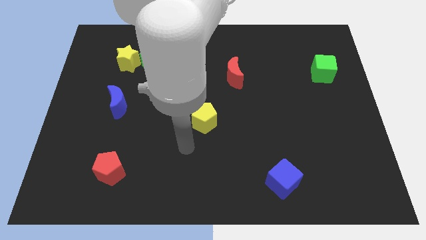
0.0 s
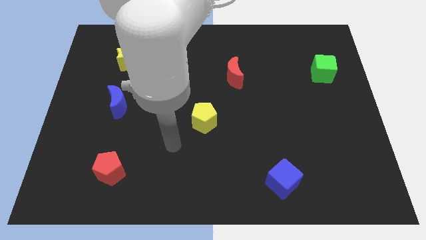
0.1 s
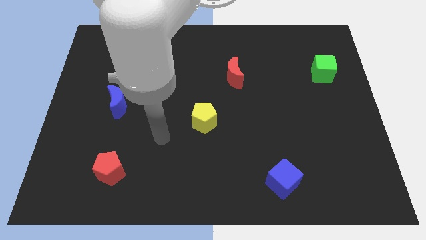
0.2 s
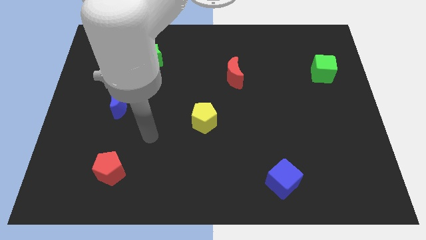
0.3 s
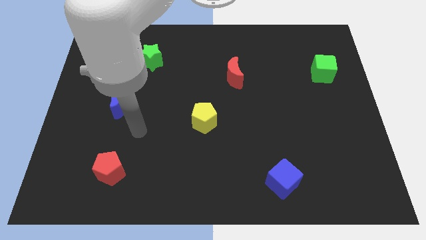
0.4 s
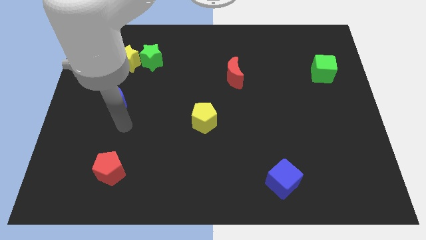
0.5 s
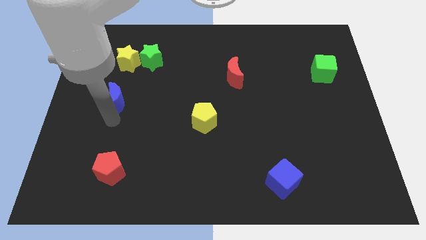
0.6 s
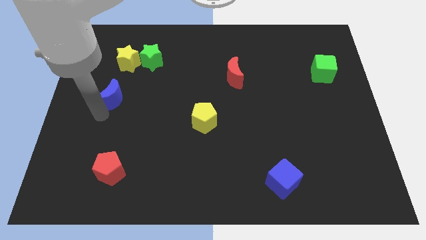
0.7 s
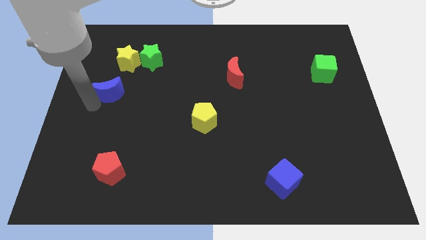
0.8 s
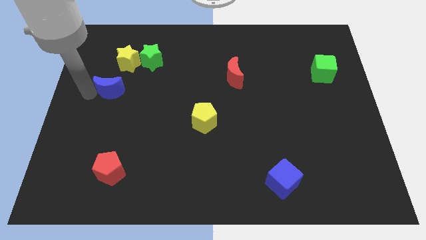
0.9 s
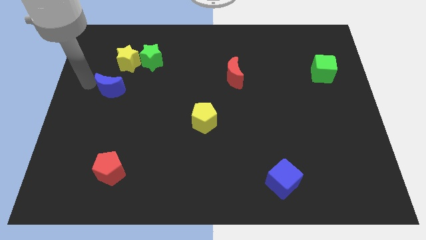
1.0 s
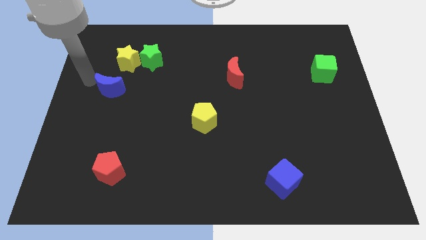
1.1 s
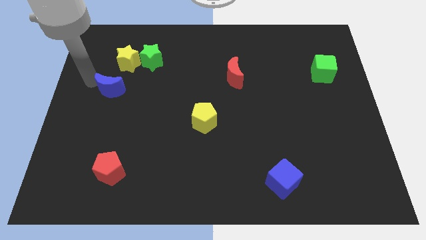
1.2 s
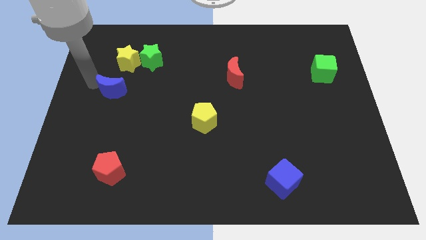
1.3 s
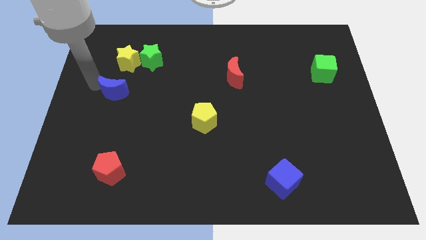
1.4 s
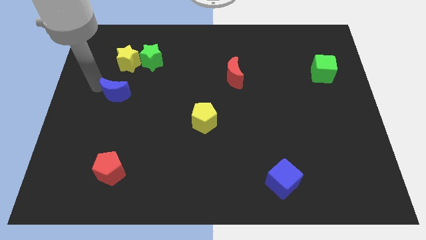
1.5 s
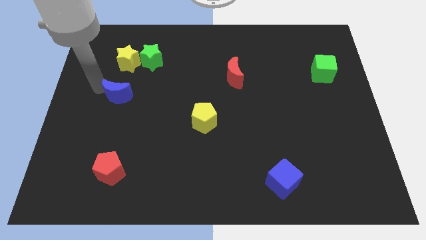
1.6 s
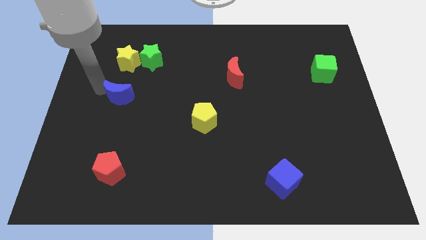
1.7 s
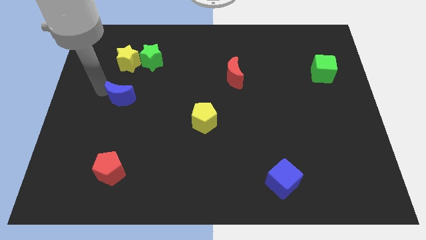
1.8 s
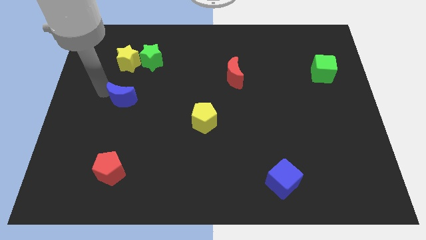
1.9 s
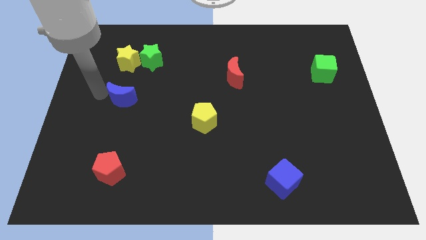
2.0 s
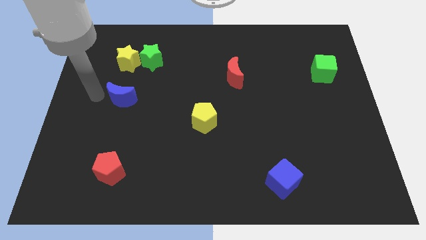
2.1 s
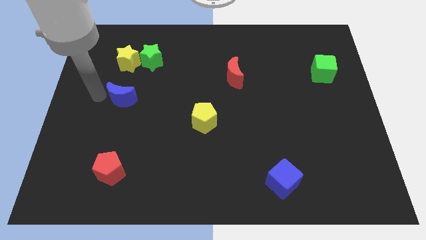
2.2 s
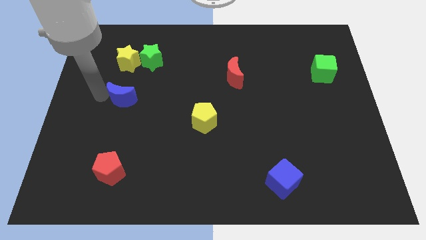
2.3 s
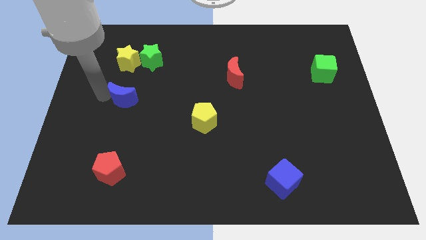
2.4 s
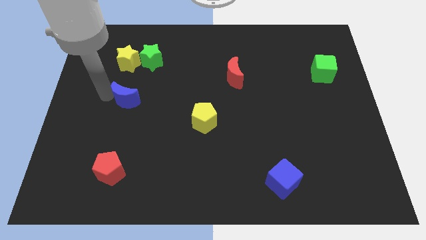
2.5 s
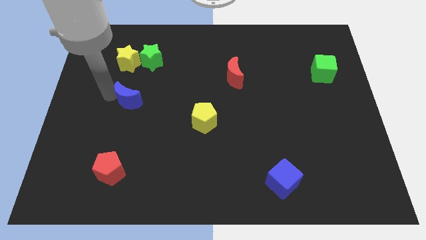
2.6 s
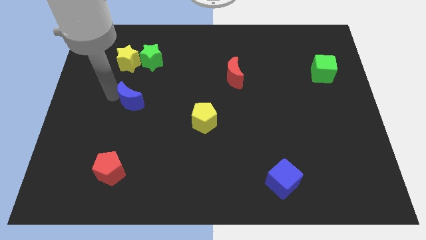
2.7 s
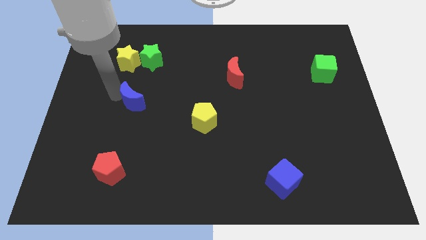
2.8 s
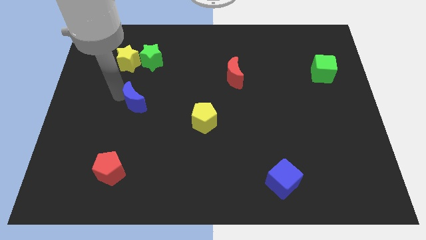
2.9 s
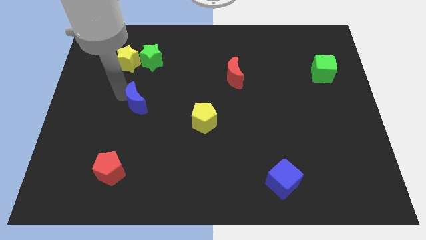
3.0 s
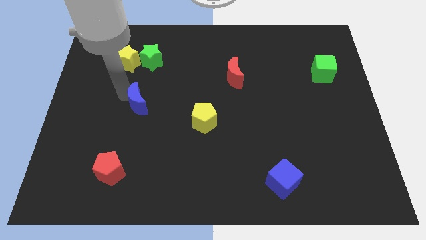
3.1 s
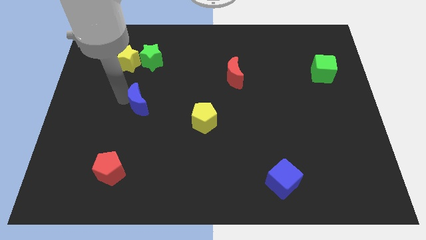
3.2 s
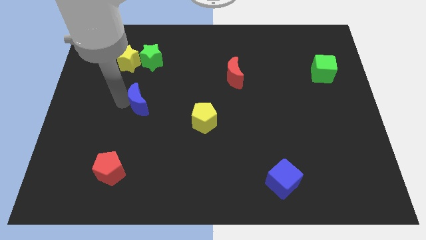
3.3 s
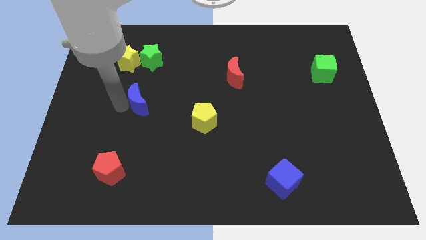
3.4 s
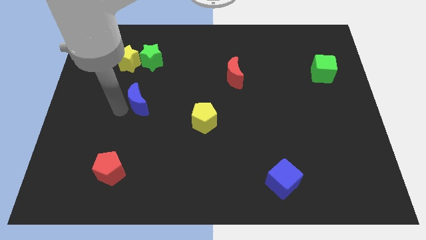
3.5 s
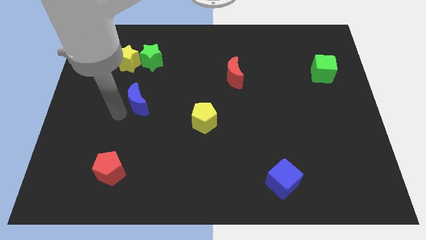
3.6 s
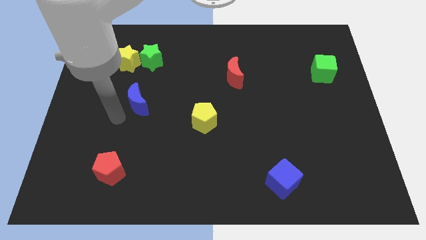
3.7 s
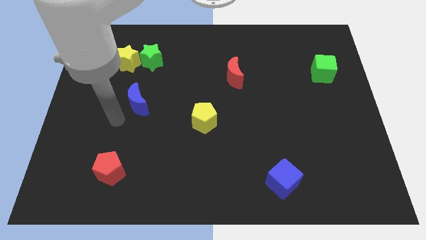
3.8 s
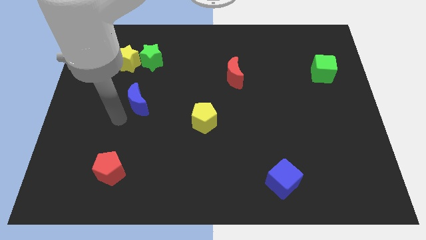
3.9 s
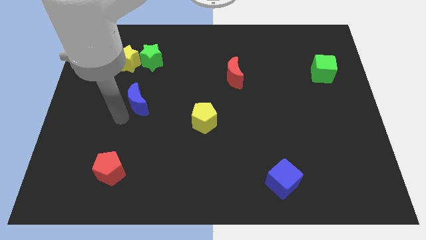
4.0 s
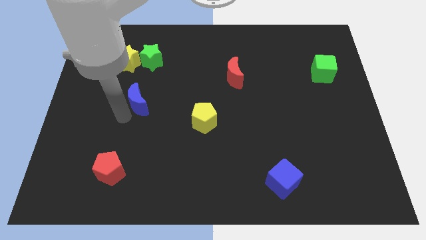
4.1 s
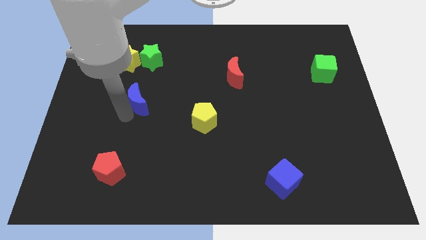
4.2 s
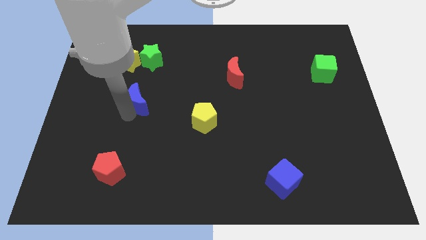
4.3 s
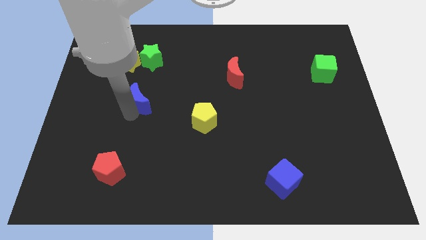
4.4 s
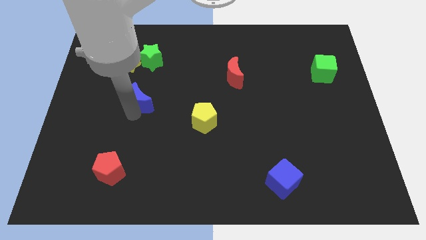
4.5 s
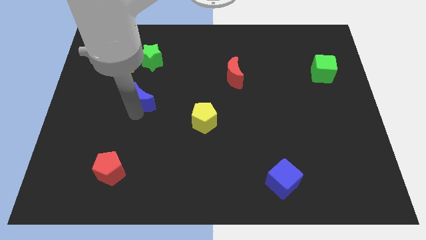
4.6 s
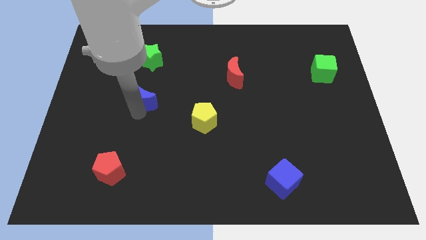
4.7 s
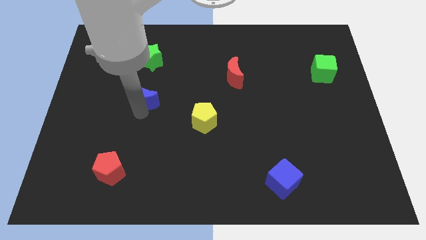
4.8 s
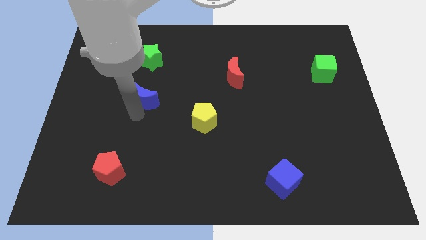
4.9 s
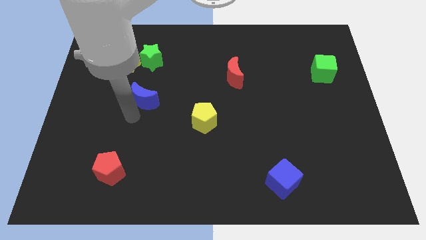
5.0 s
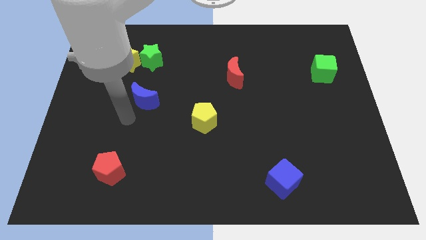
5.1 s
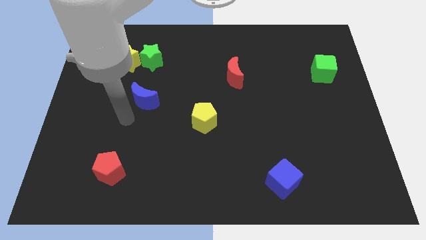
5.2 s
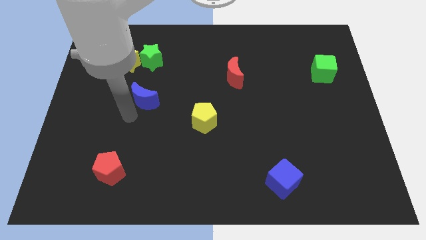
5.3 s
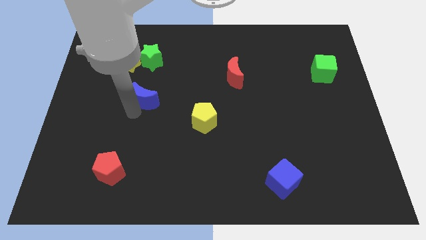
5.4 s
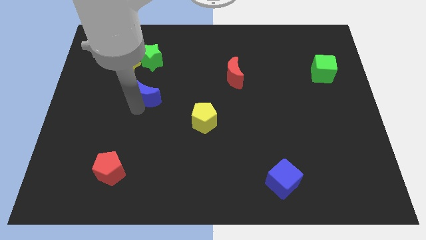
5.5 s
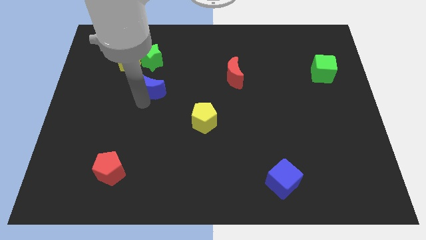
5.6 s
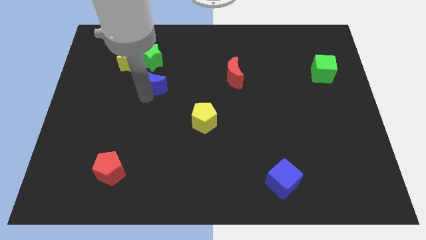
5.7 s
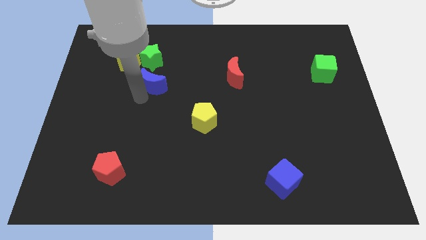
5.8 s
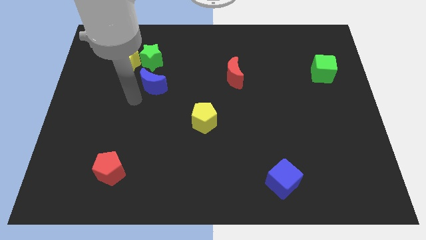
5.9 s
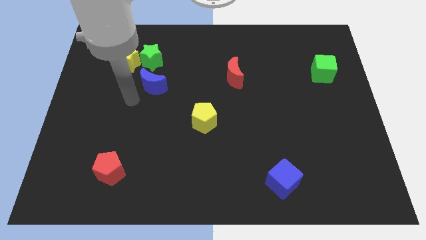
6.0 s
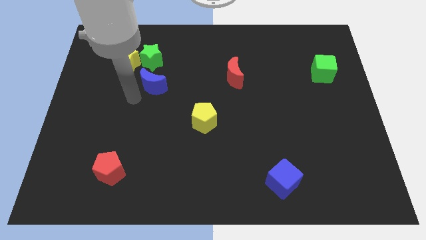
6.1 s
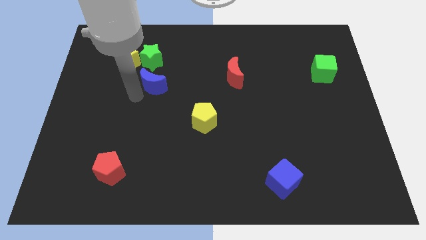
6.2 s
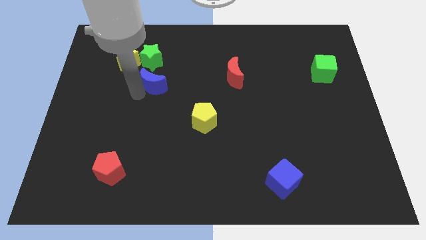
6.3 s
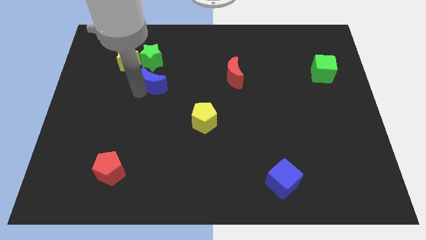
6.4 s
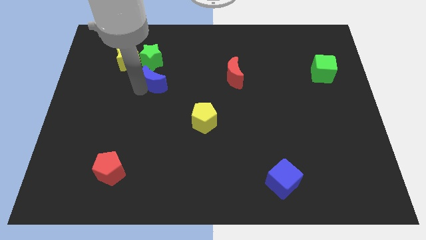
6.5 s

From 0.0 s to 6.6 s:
slide the blue moon to the bottom right side of the green star

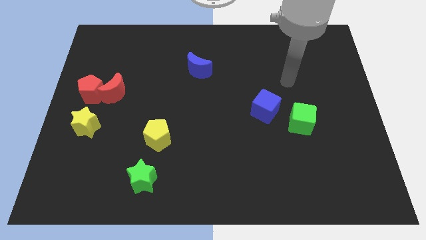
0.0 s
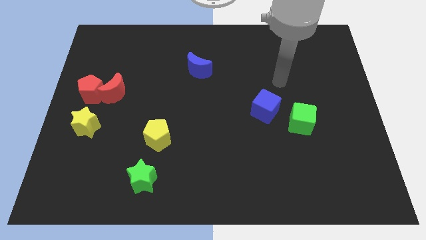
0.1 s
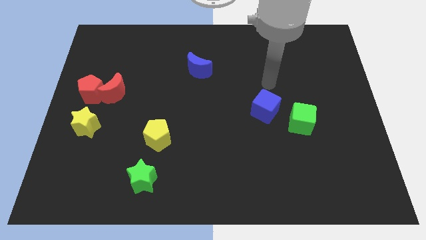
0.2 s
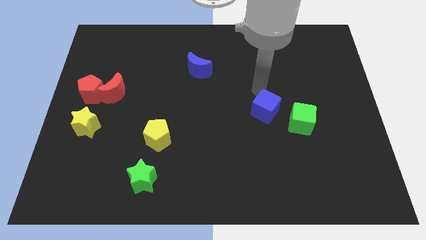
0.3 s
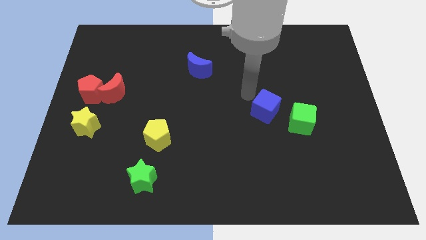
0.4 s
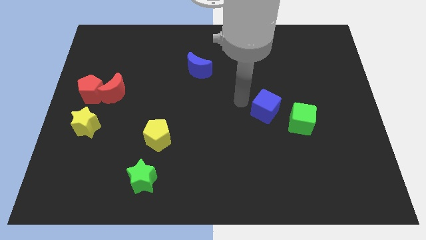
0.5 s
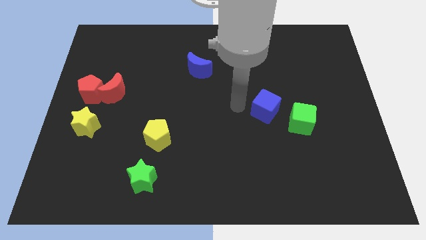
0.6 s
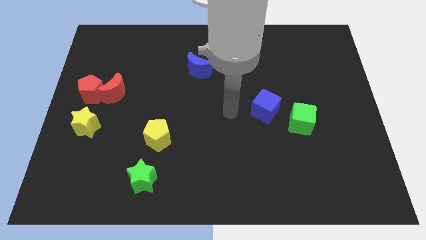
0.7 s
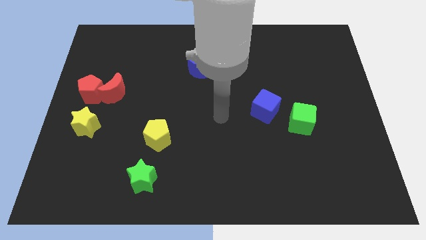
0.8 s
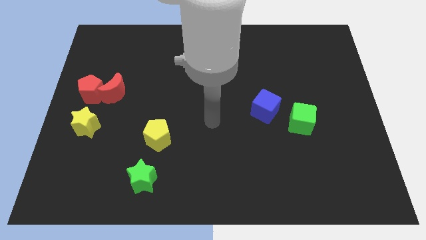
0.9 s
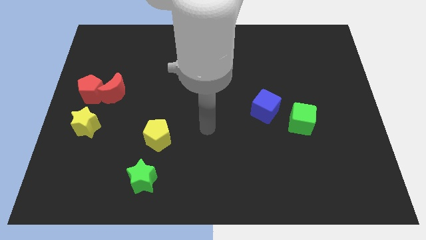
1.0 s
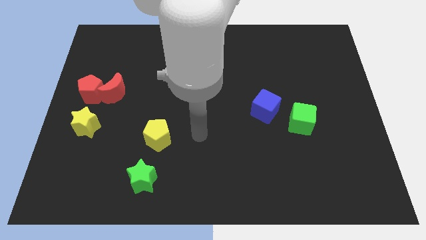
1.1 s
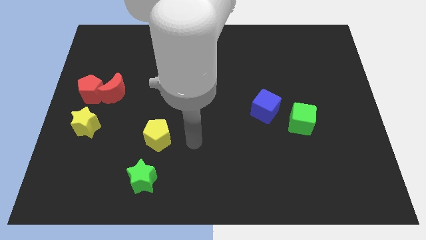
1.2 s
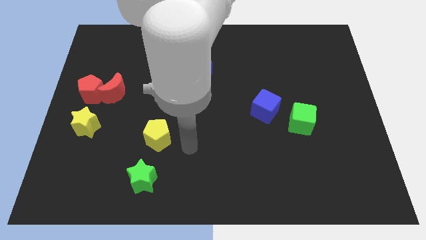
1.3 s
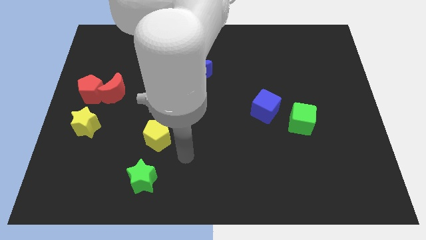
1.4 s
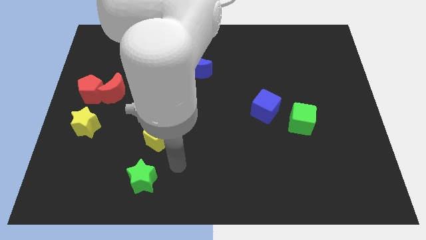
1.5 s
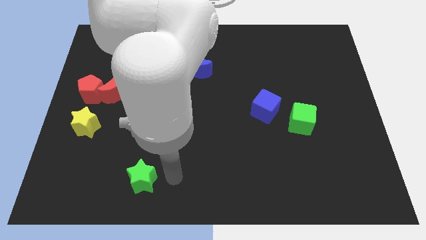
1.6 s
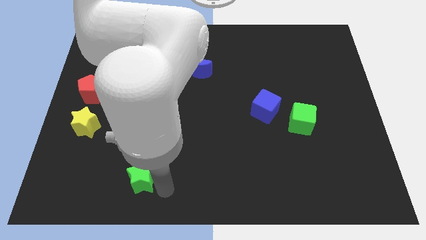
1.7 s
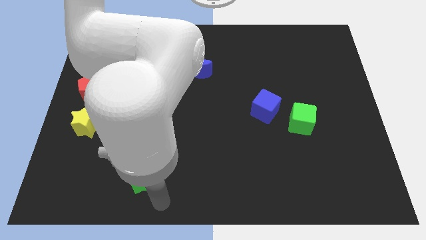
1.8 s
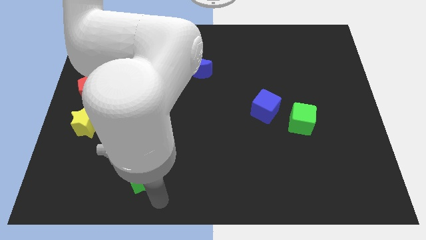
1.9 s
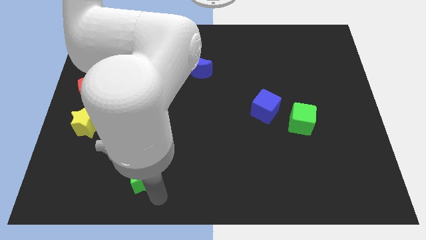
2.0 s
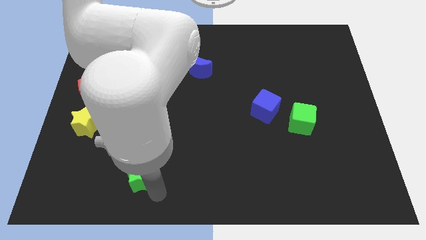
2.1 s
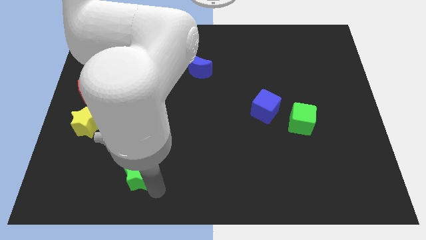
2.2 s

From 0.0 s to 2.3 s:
slide the green star to the bottom left of the yellow pentagon
